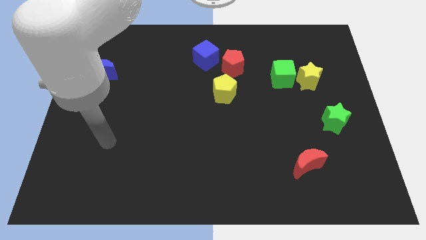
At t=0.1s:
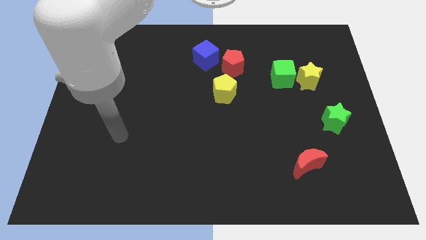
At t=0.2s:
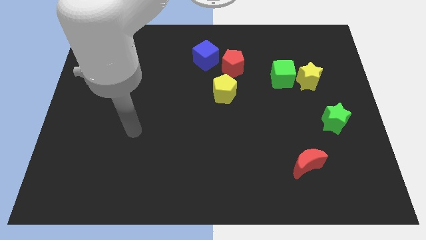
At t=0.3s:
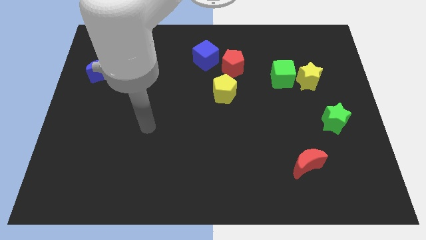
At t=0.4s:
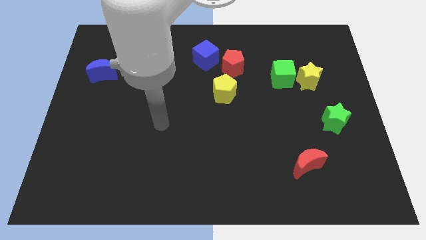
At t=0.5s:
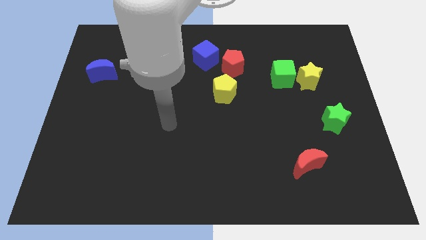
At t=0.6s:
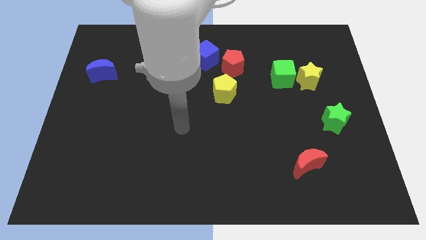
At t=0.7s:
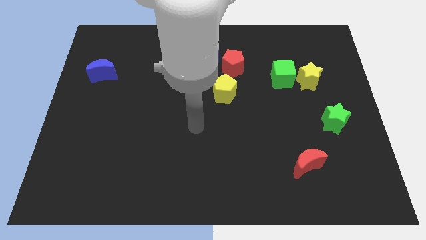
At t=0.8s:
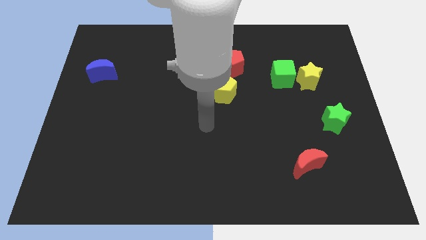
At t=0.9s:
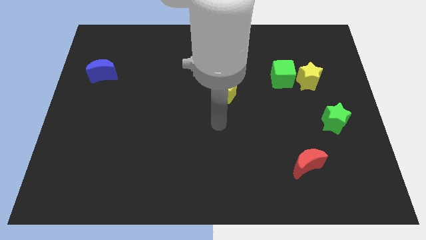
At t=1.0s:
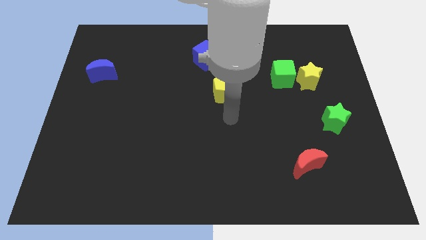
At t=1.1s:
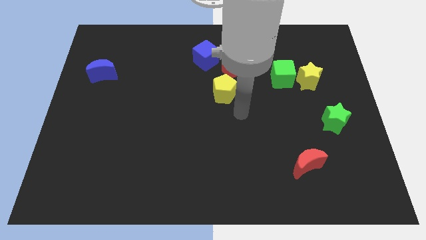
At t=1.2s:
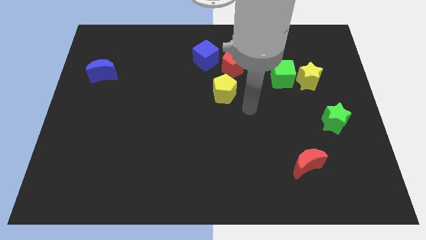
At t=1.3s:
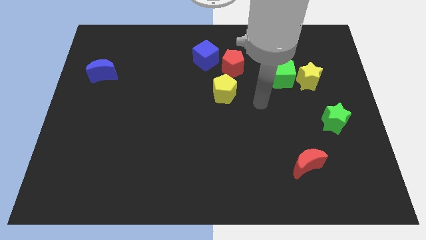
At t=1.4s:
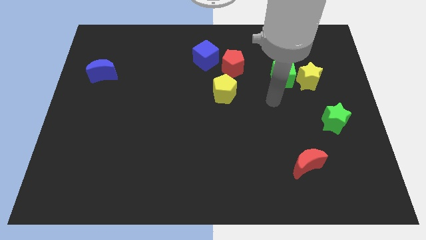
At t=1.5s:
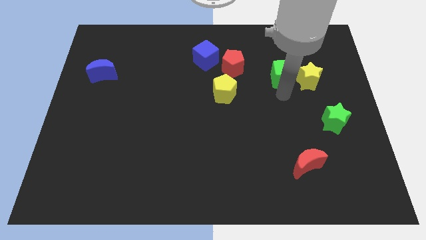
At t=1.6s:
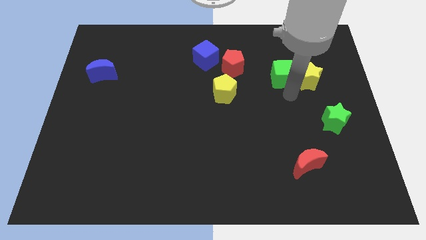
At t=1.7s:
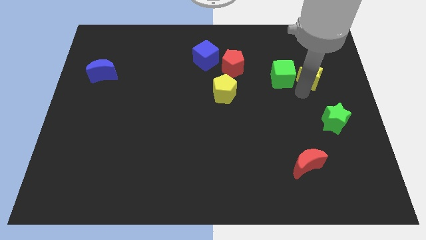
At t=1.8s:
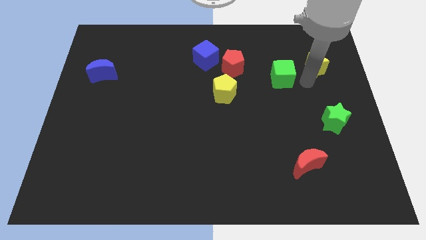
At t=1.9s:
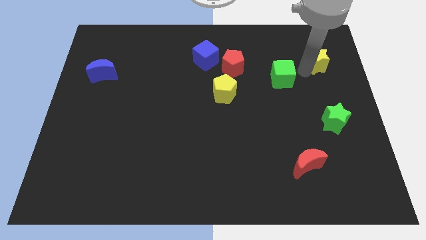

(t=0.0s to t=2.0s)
move the green cube away from the yellow star

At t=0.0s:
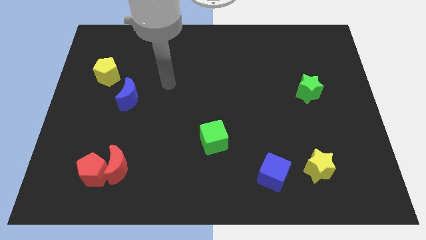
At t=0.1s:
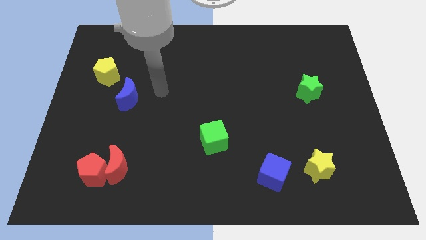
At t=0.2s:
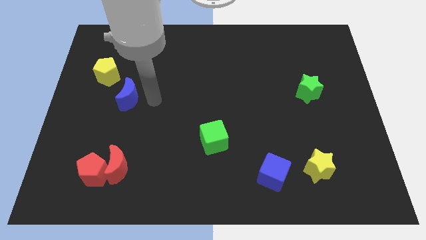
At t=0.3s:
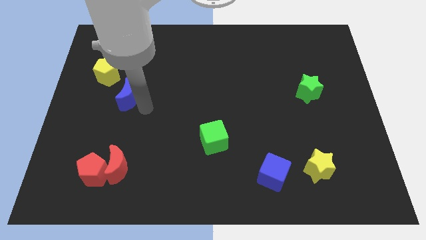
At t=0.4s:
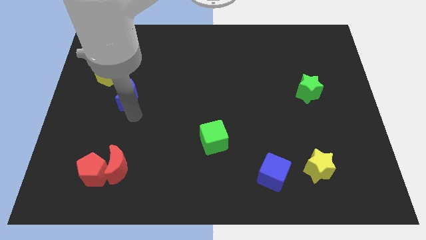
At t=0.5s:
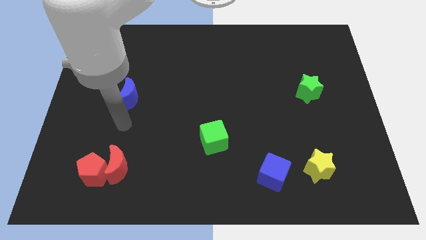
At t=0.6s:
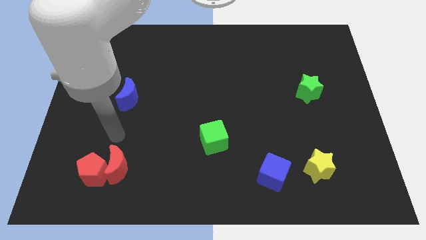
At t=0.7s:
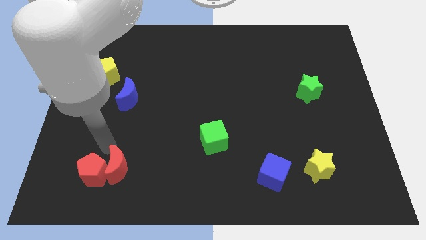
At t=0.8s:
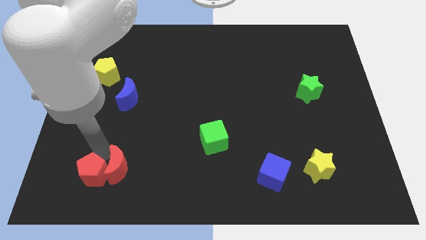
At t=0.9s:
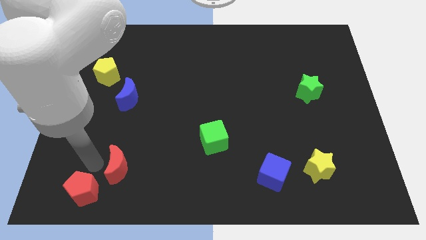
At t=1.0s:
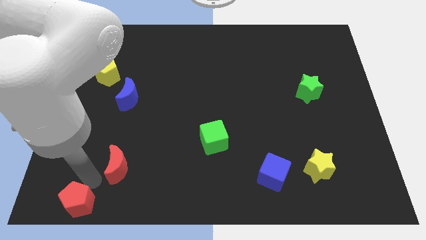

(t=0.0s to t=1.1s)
pull the red moon apart from the red pentagon

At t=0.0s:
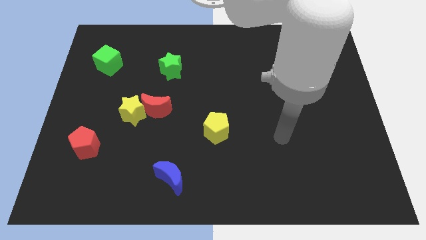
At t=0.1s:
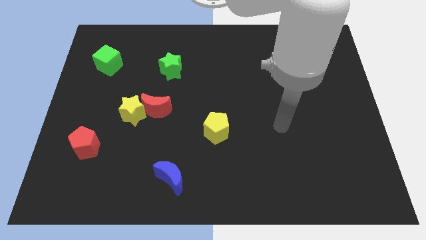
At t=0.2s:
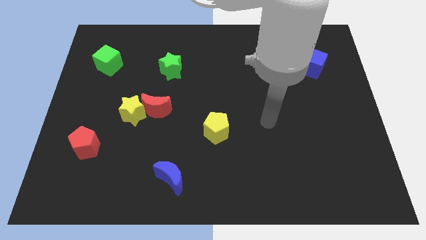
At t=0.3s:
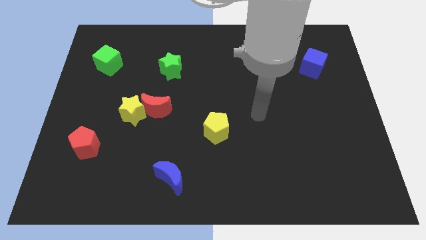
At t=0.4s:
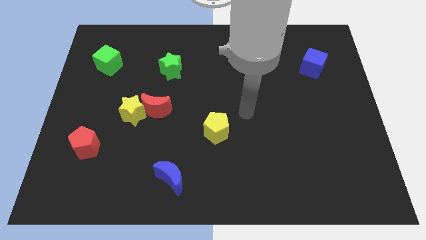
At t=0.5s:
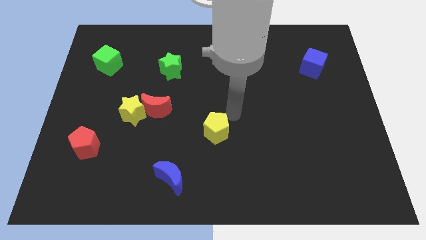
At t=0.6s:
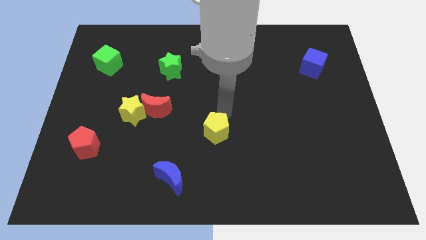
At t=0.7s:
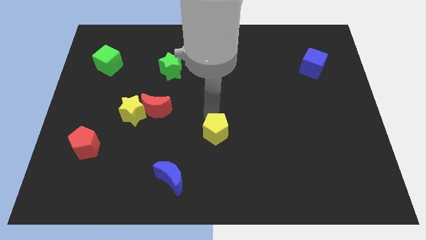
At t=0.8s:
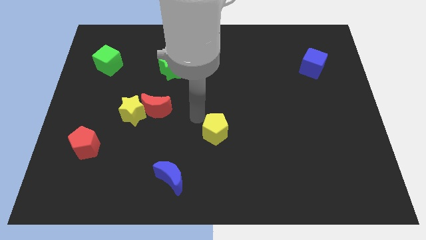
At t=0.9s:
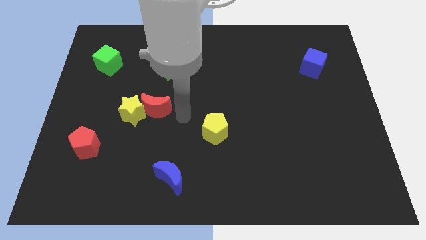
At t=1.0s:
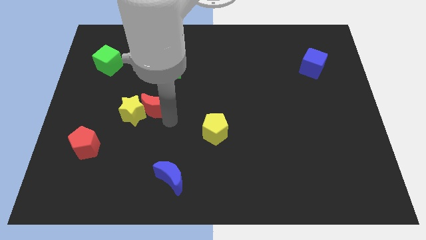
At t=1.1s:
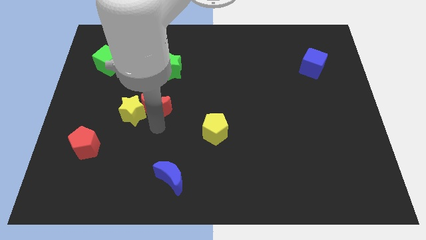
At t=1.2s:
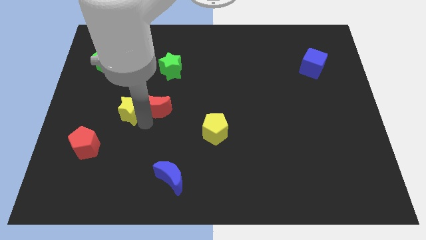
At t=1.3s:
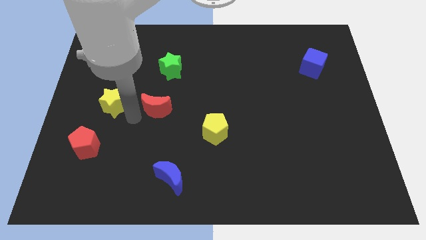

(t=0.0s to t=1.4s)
move the red moon away from the yellow star

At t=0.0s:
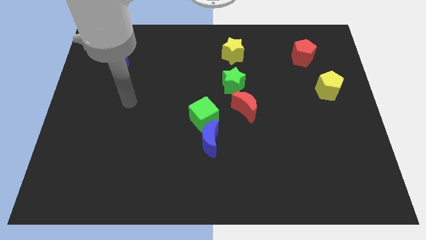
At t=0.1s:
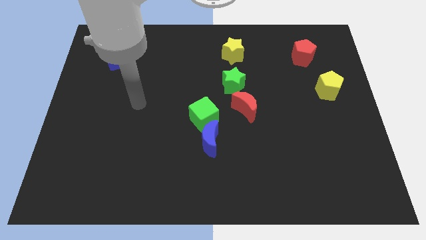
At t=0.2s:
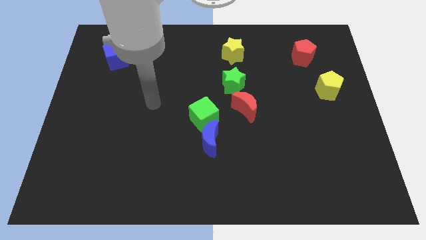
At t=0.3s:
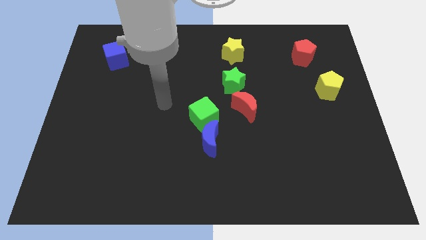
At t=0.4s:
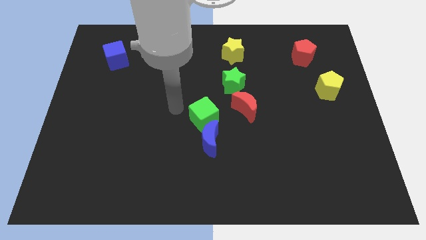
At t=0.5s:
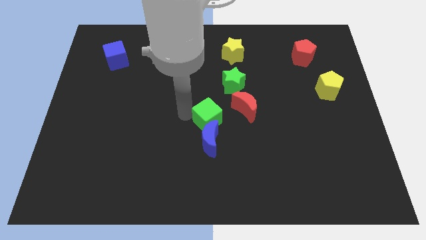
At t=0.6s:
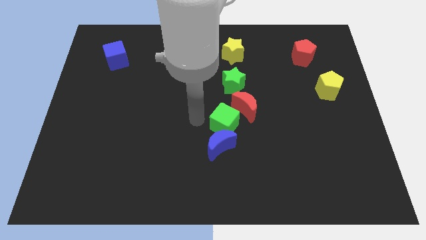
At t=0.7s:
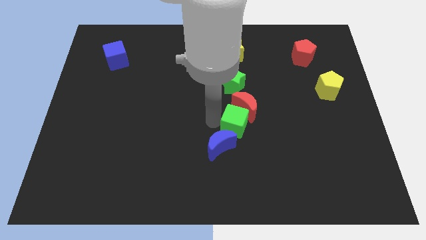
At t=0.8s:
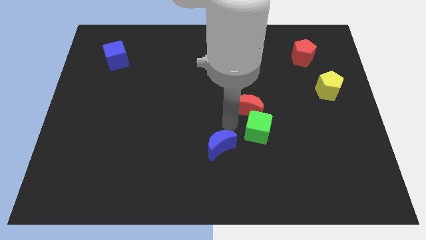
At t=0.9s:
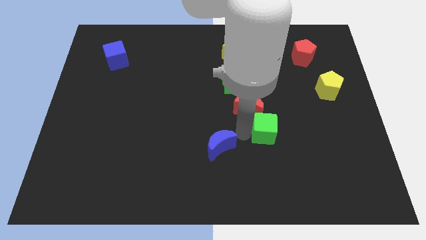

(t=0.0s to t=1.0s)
separate the blue moon from the green cube

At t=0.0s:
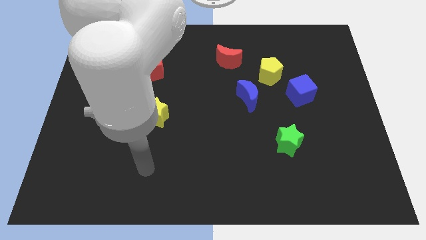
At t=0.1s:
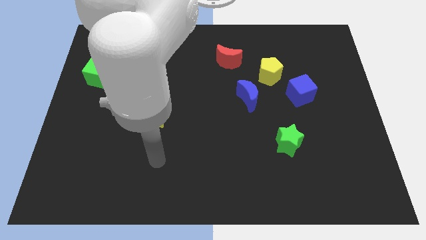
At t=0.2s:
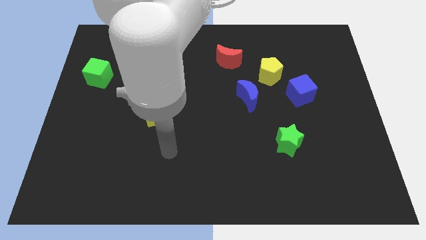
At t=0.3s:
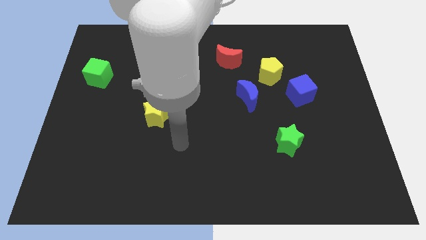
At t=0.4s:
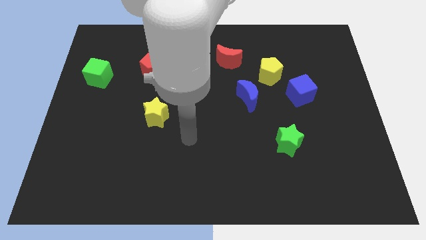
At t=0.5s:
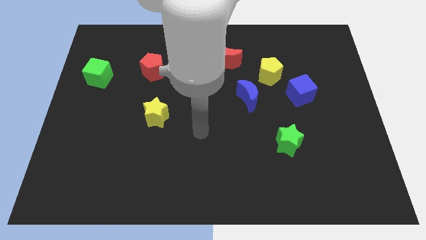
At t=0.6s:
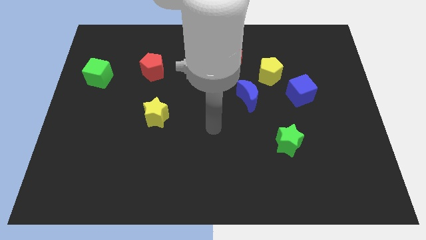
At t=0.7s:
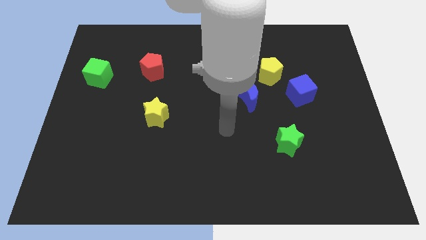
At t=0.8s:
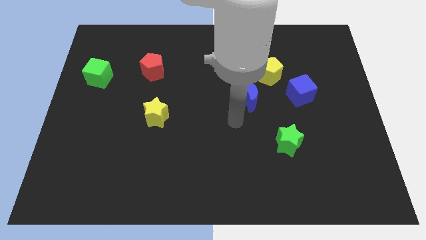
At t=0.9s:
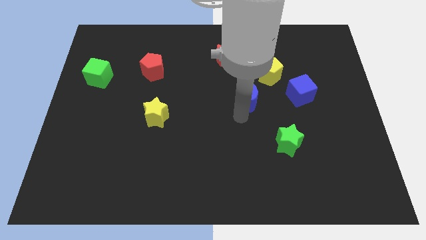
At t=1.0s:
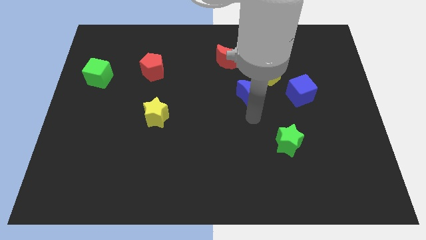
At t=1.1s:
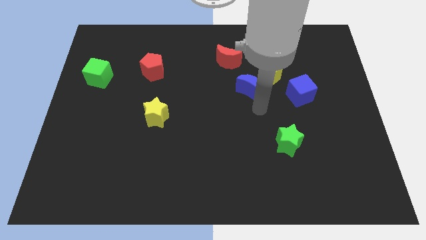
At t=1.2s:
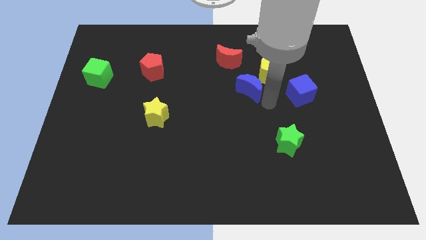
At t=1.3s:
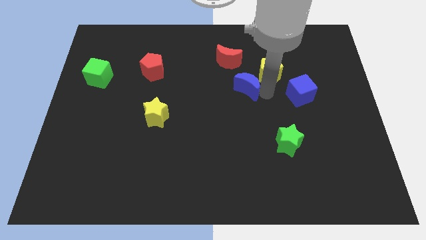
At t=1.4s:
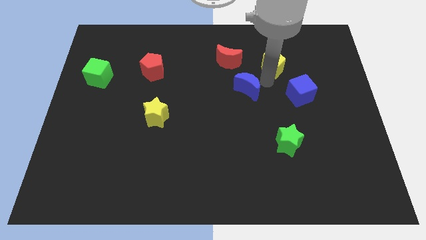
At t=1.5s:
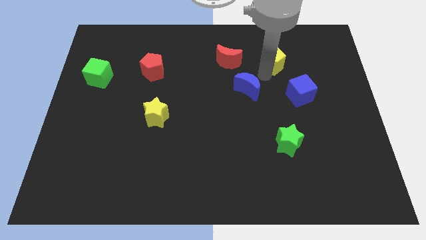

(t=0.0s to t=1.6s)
move the blue moon away from the yellow pentagon

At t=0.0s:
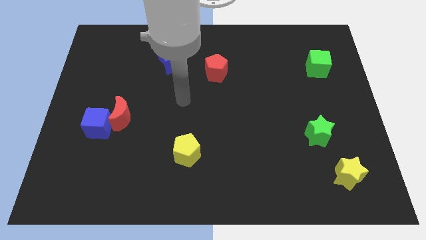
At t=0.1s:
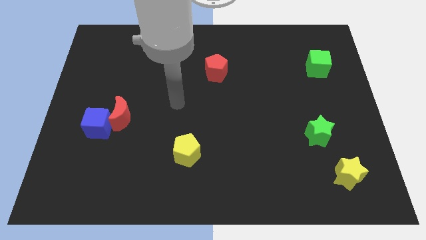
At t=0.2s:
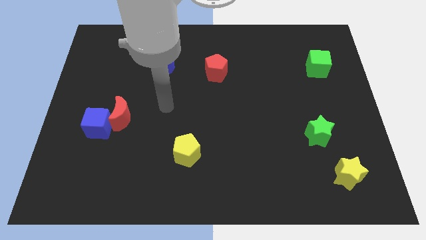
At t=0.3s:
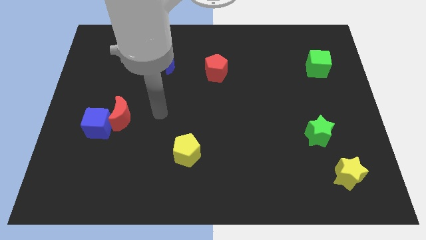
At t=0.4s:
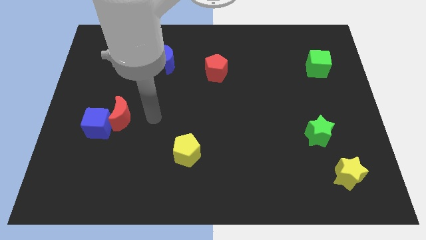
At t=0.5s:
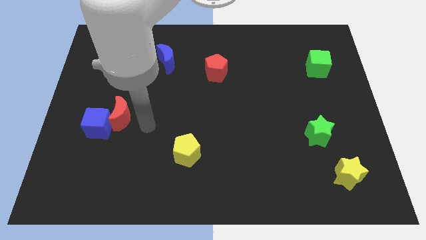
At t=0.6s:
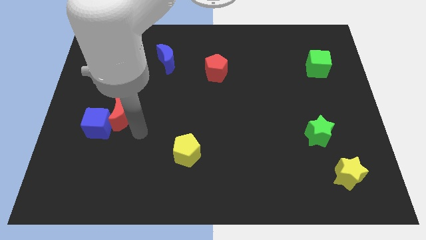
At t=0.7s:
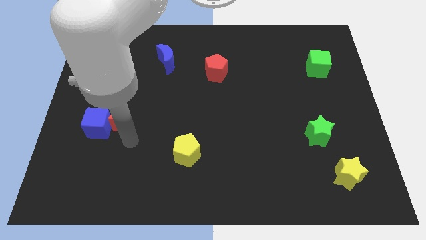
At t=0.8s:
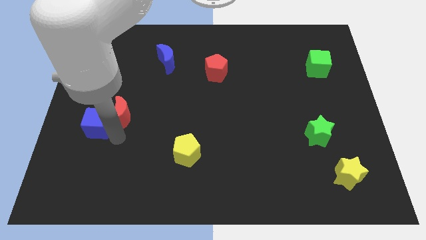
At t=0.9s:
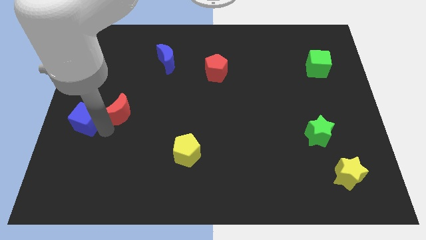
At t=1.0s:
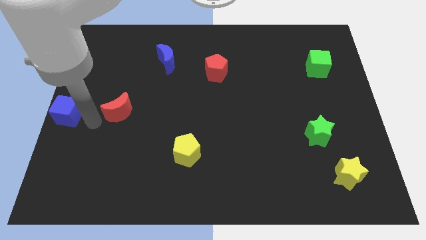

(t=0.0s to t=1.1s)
separate the red moon from the blue cube

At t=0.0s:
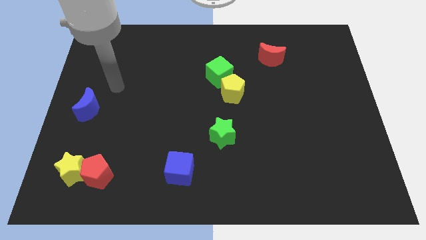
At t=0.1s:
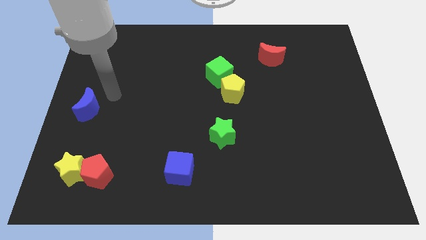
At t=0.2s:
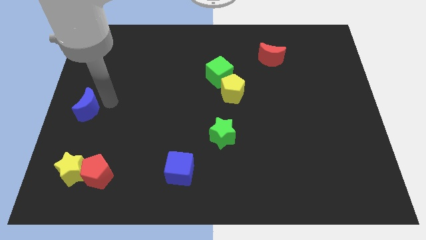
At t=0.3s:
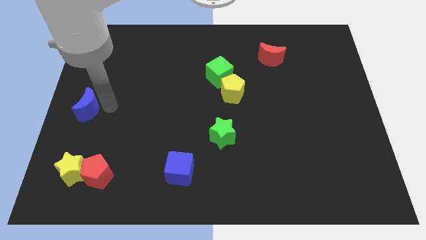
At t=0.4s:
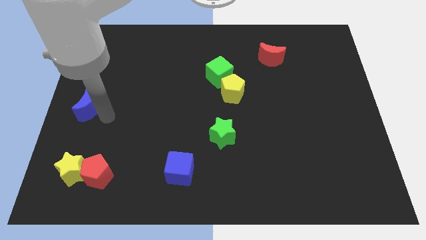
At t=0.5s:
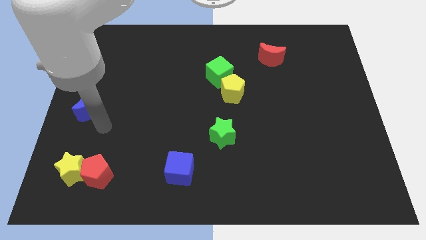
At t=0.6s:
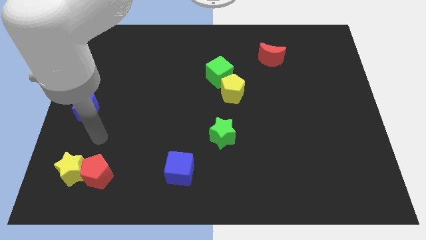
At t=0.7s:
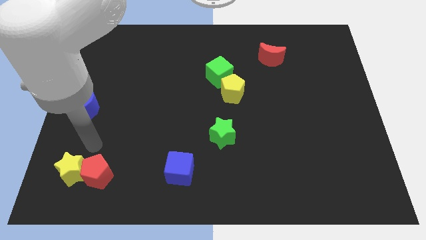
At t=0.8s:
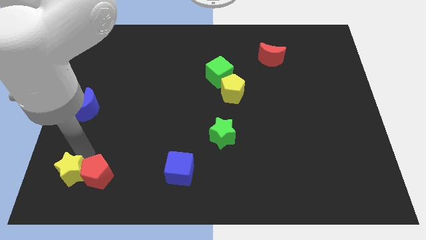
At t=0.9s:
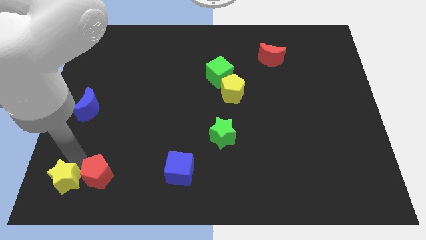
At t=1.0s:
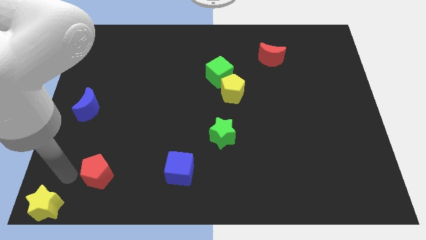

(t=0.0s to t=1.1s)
move the red pentagon away from the yellow star
